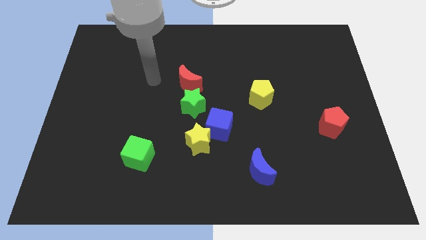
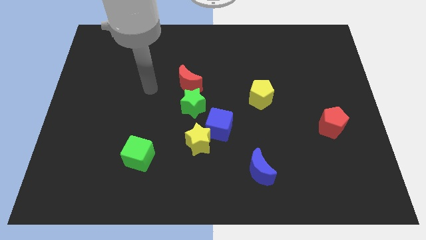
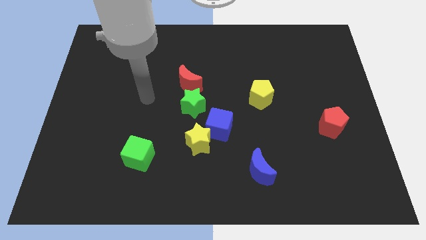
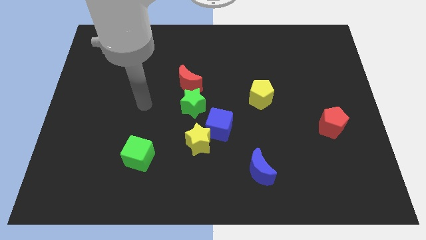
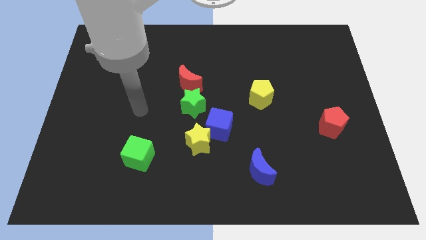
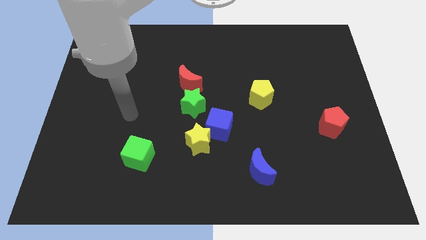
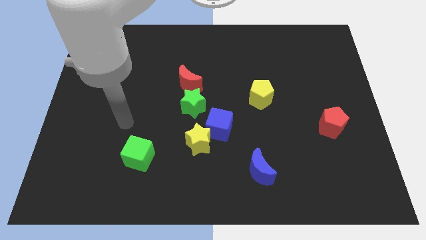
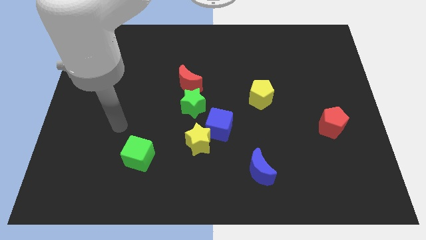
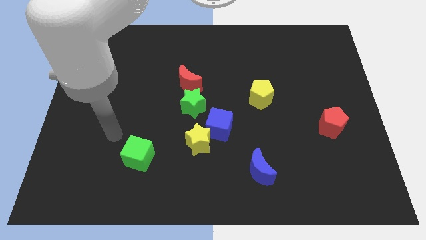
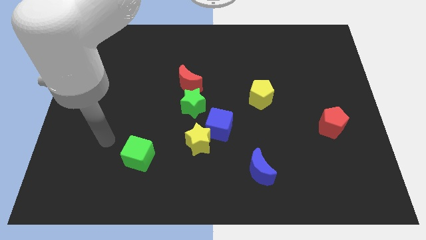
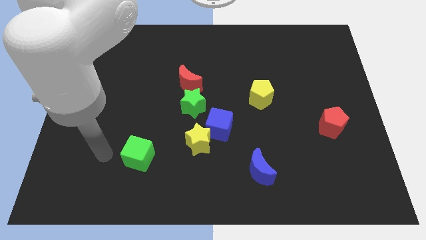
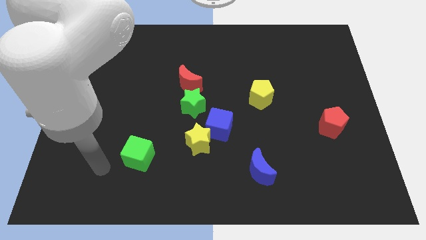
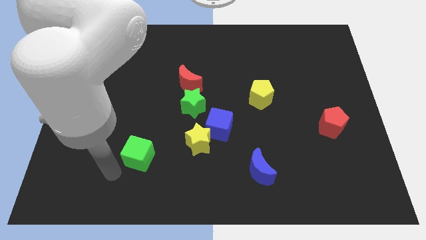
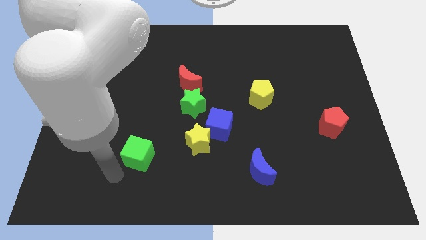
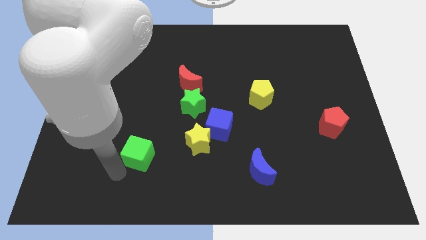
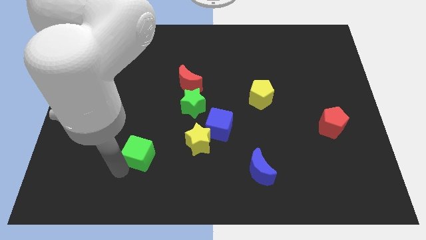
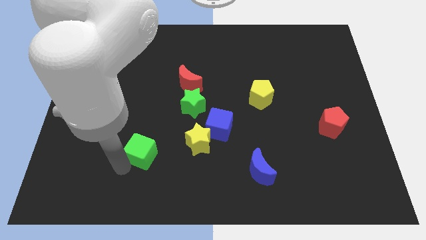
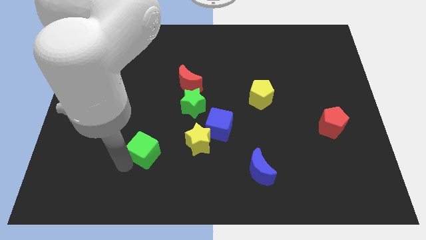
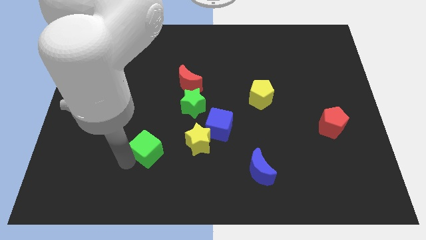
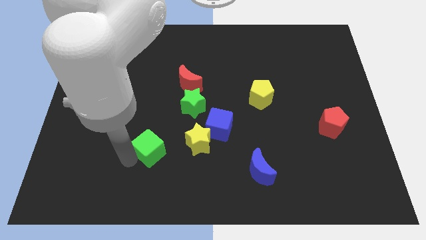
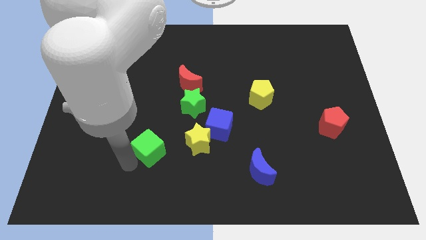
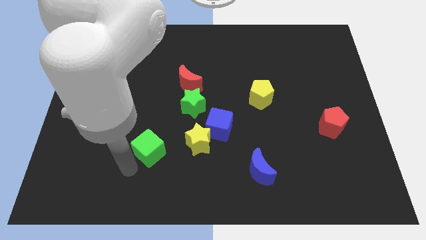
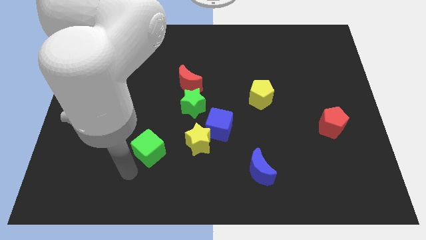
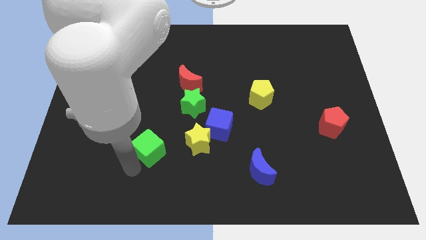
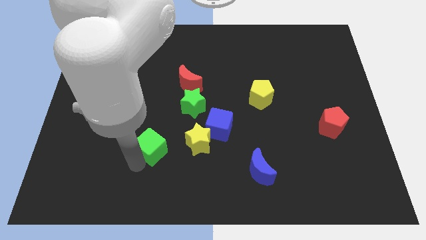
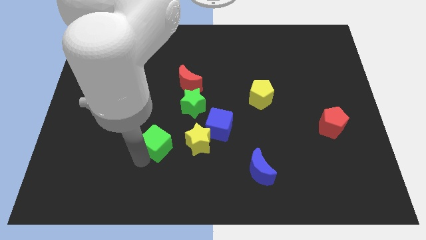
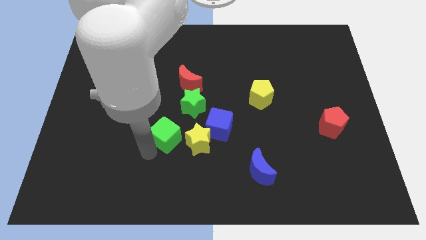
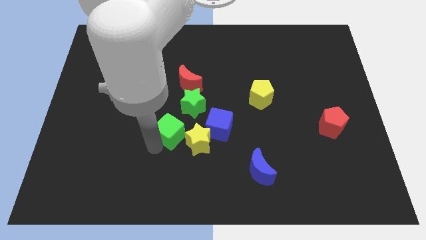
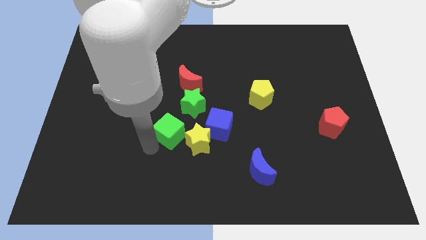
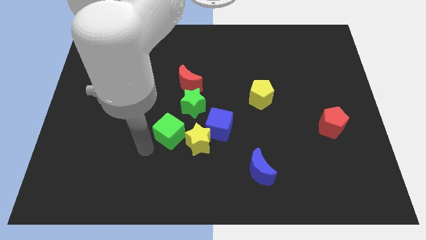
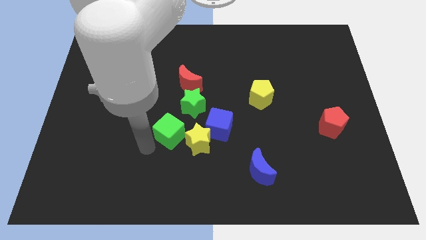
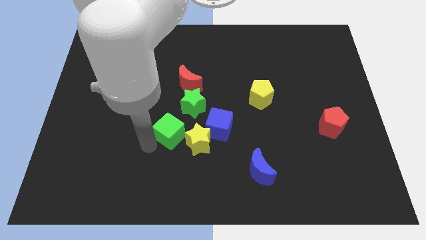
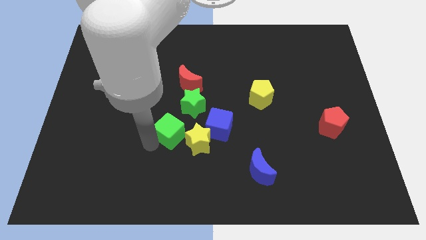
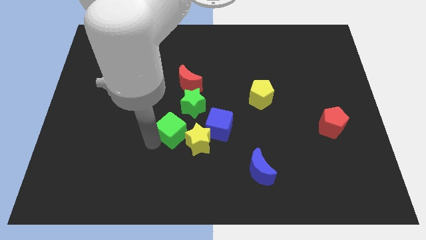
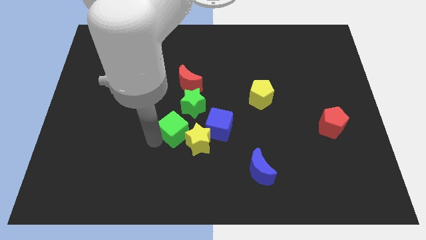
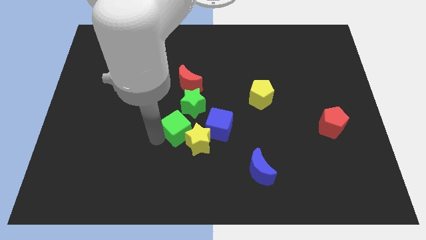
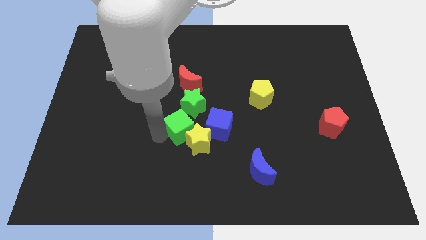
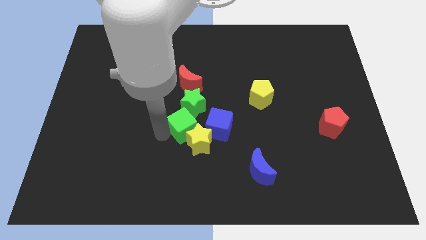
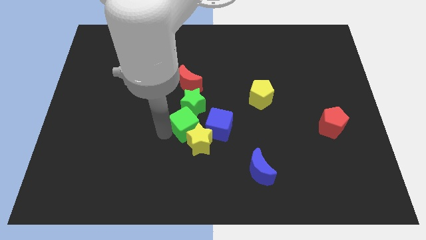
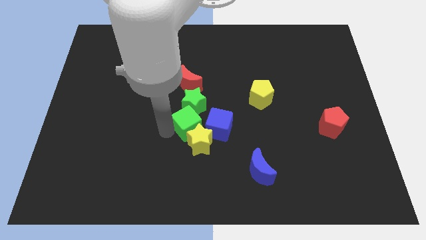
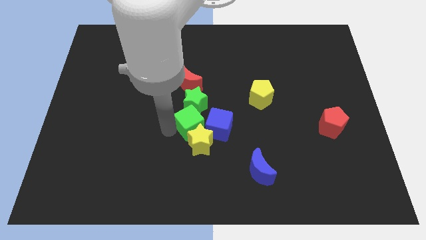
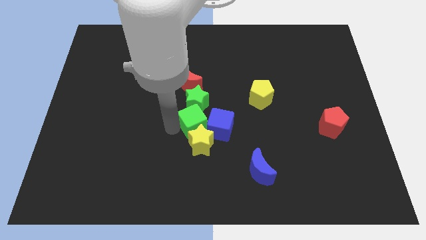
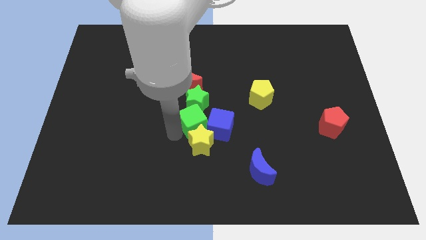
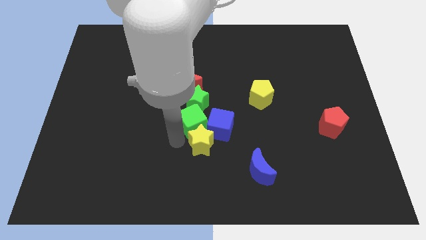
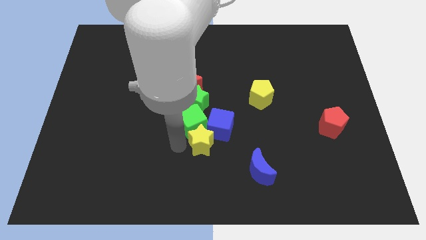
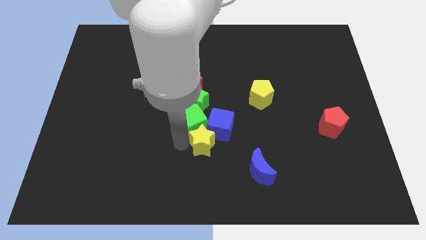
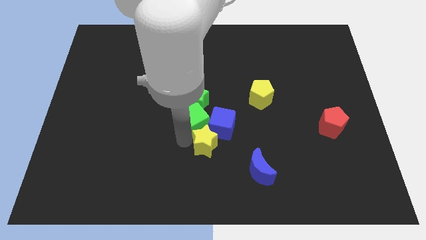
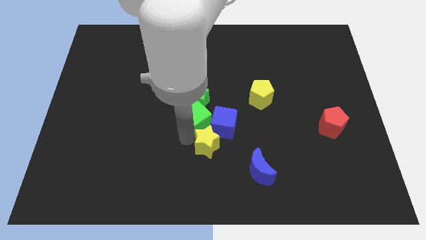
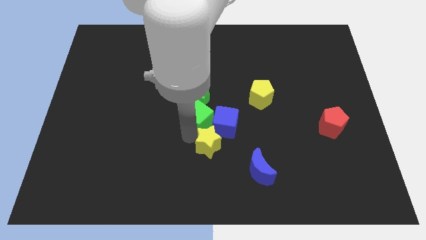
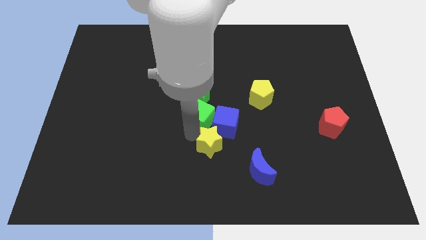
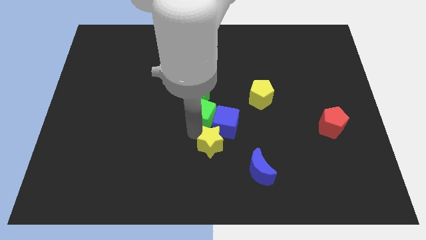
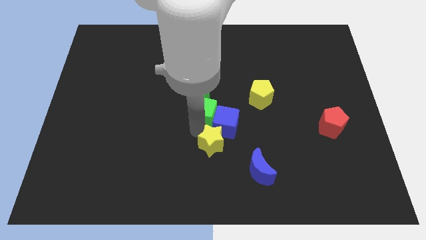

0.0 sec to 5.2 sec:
push the green cube to the bottom right of the red moon

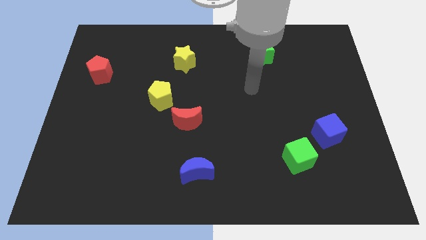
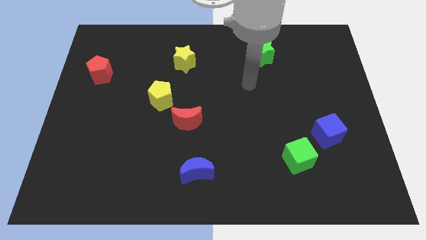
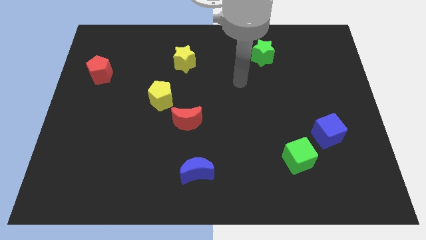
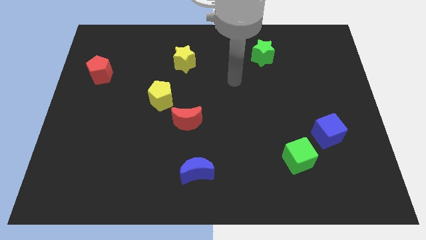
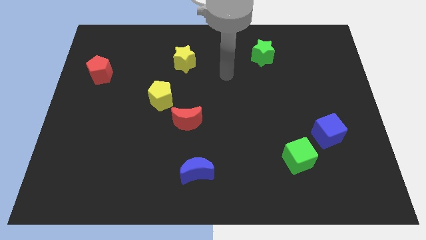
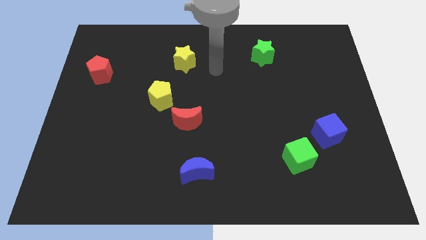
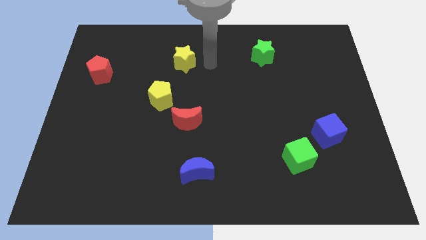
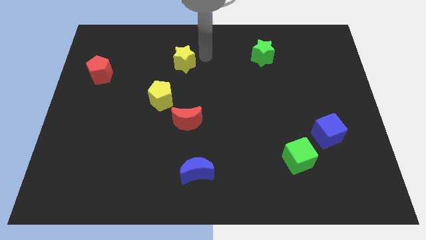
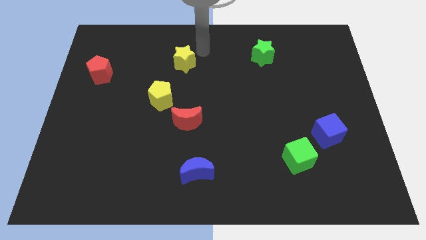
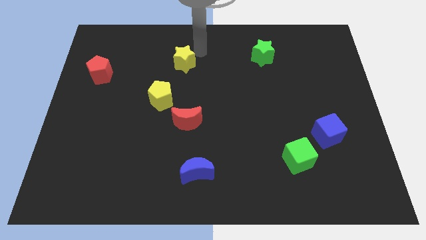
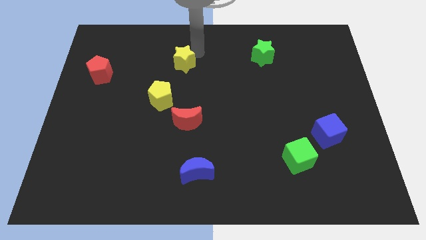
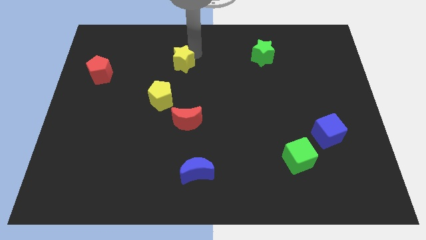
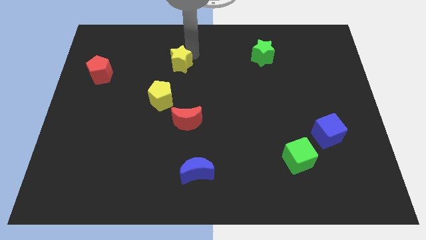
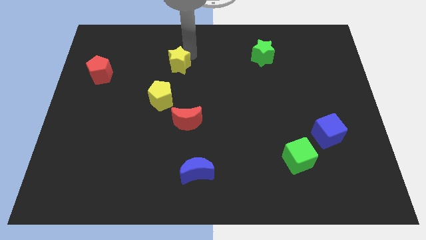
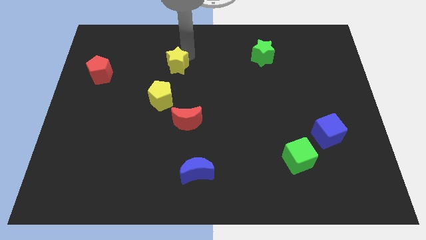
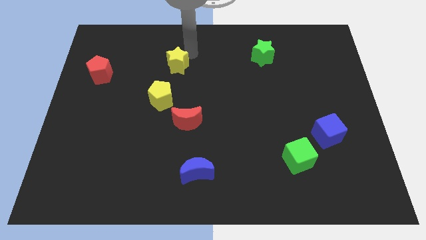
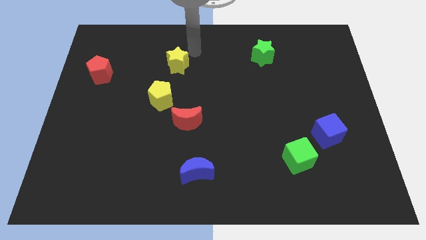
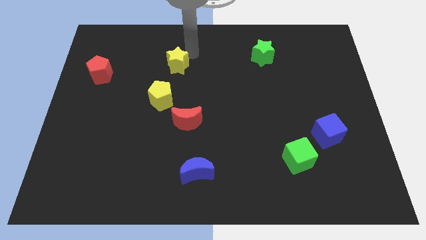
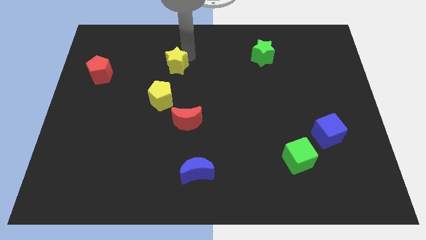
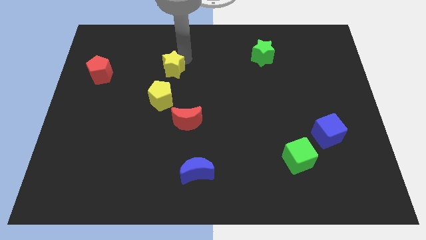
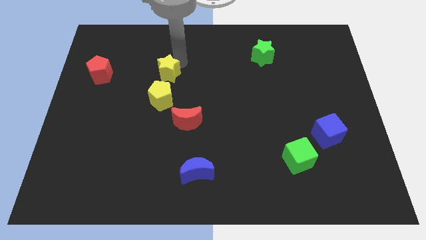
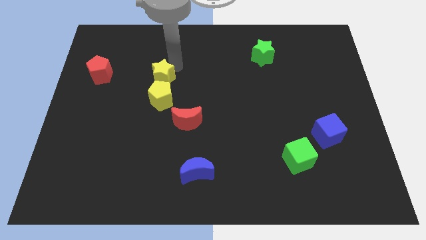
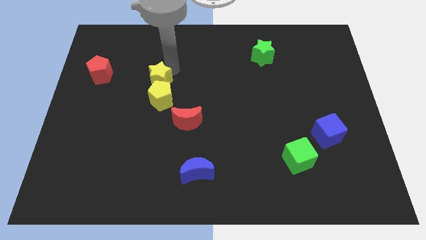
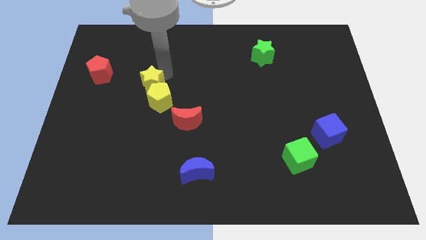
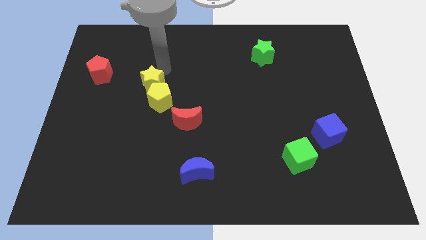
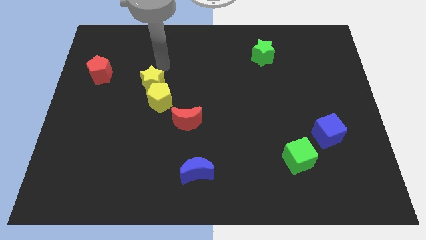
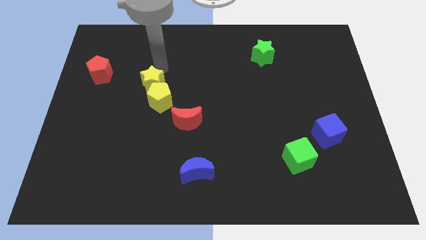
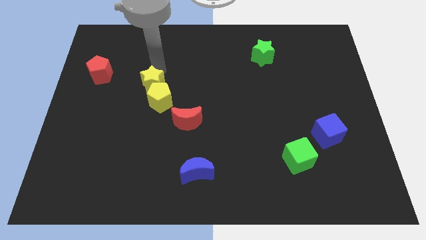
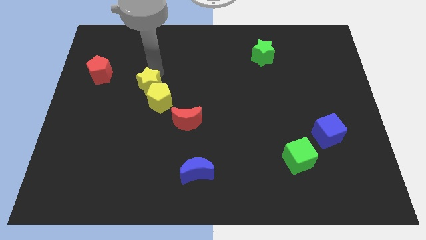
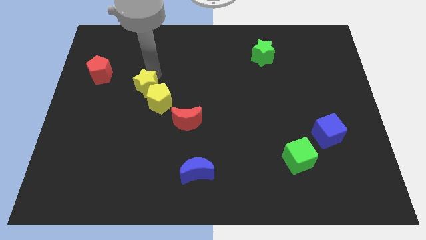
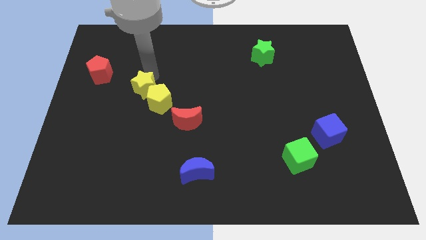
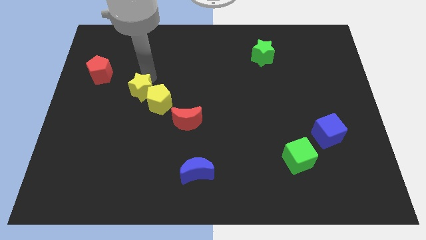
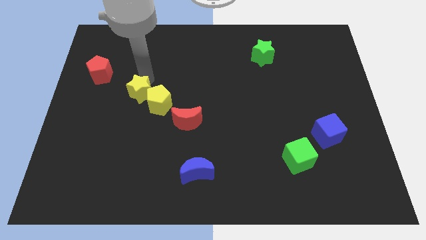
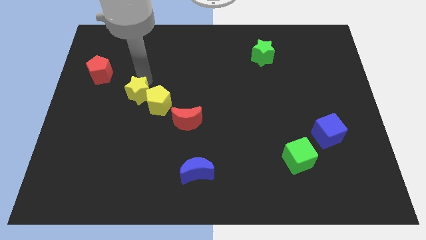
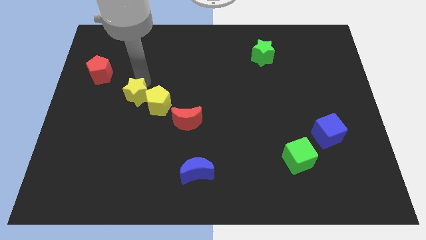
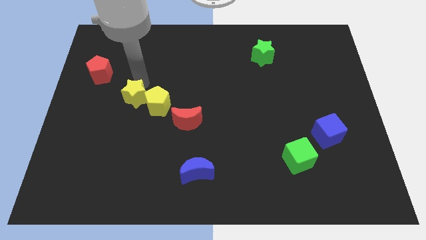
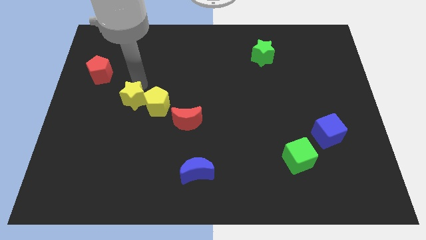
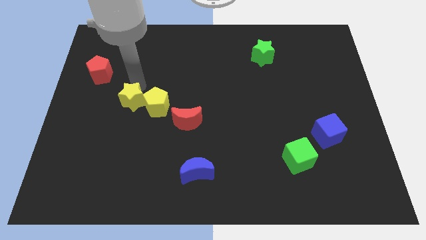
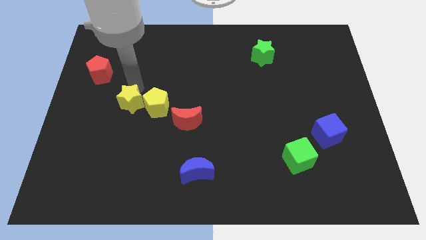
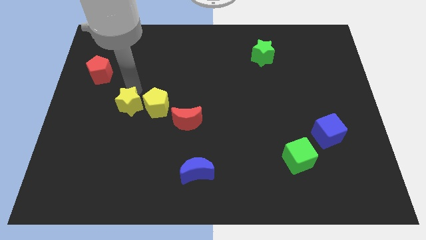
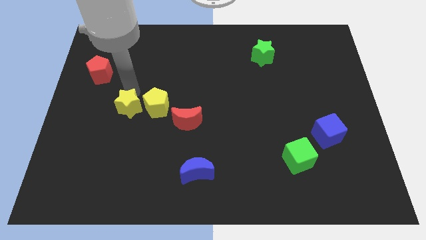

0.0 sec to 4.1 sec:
slide the yellow star to the left of the red moon
